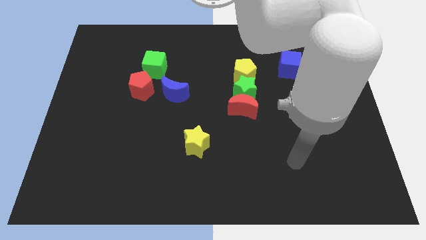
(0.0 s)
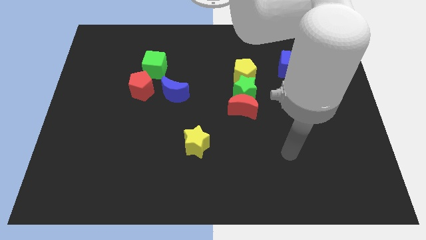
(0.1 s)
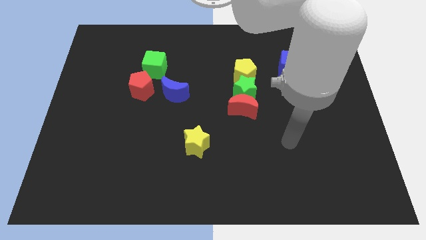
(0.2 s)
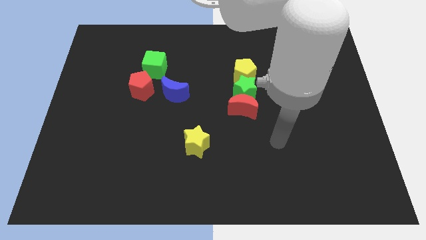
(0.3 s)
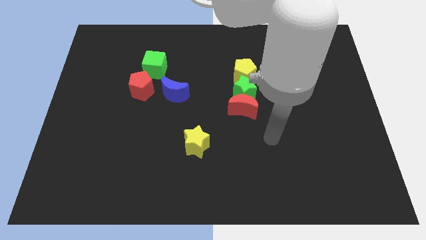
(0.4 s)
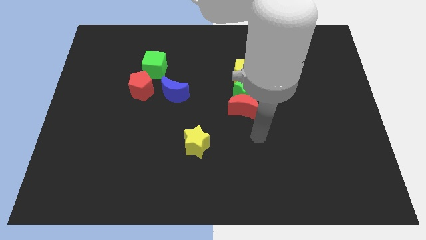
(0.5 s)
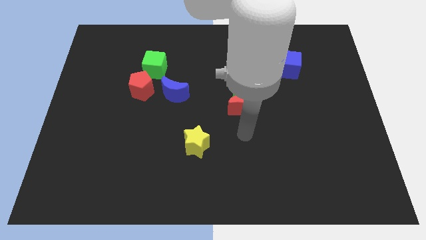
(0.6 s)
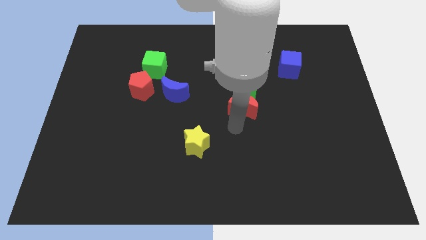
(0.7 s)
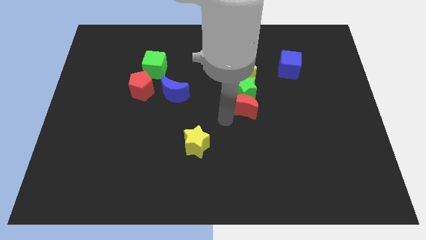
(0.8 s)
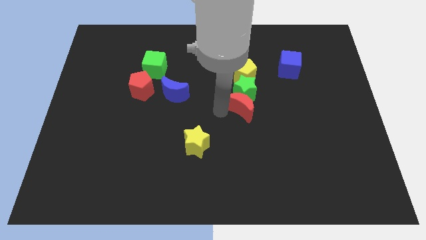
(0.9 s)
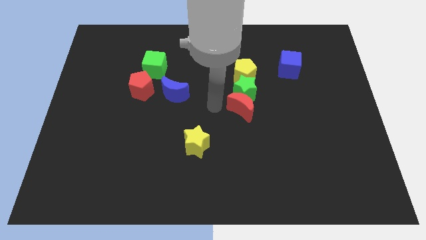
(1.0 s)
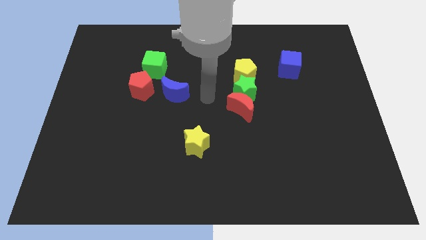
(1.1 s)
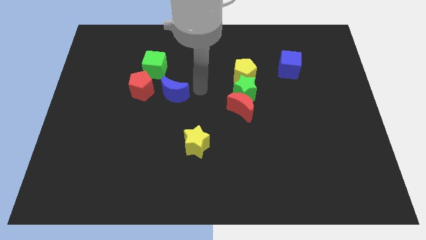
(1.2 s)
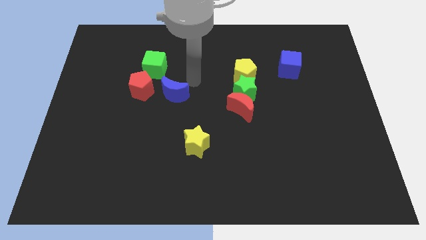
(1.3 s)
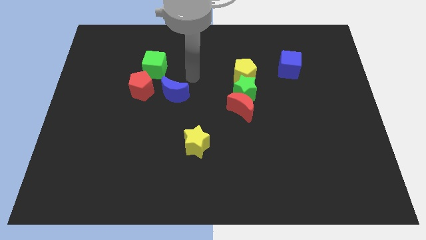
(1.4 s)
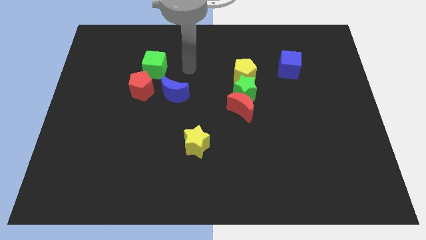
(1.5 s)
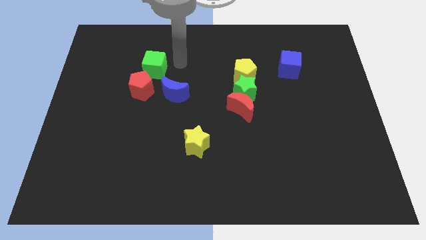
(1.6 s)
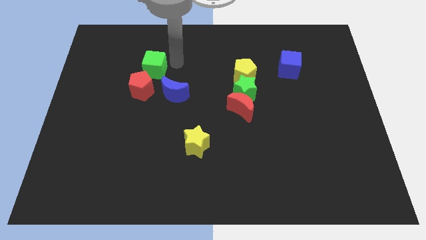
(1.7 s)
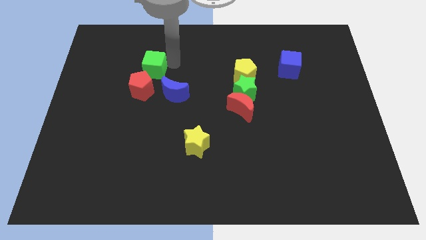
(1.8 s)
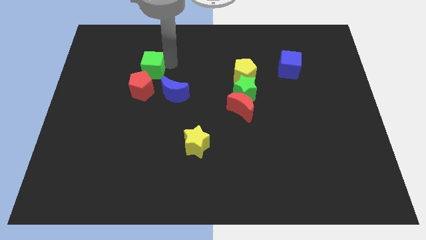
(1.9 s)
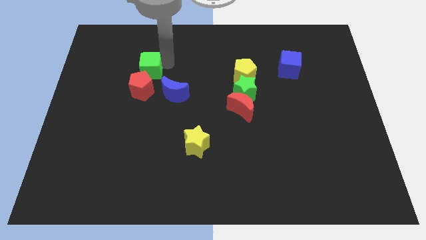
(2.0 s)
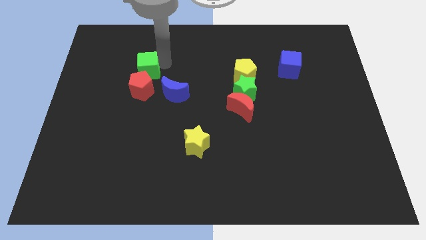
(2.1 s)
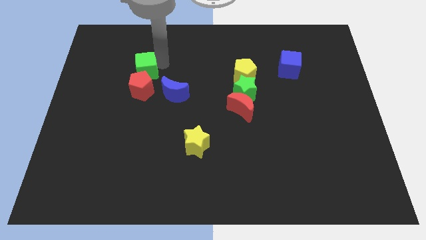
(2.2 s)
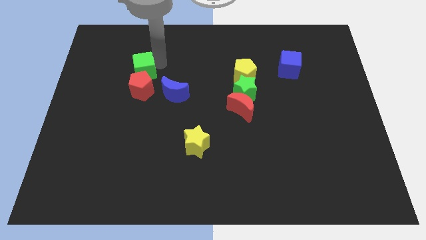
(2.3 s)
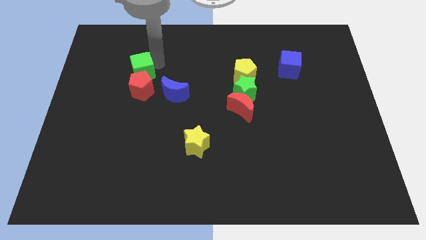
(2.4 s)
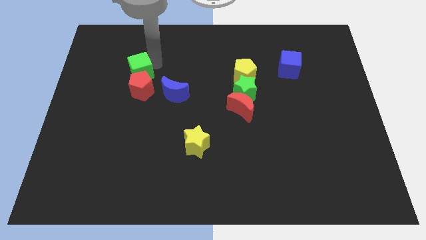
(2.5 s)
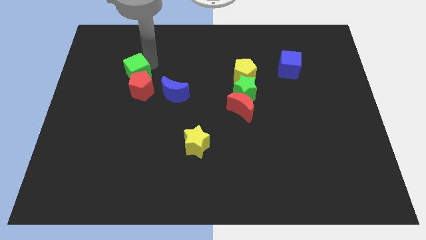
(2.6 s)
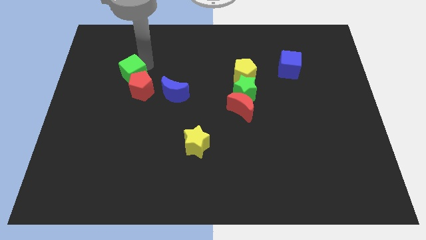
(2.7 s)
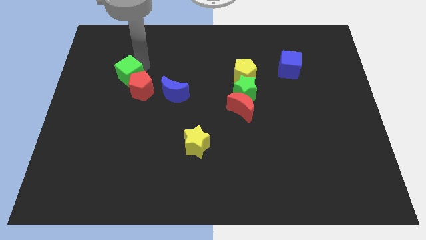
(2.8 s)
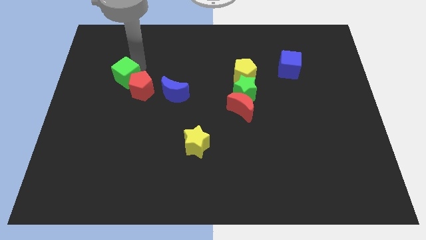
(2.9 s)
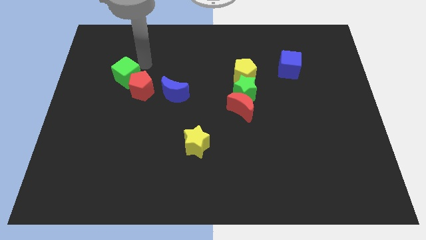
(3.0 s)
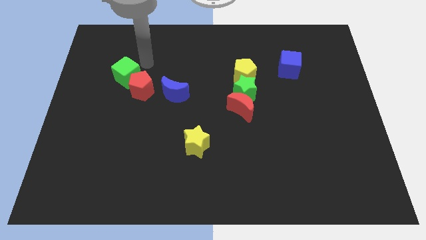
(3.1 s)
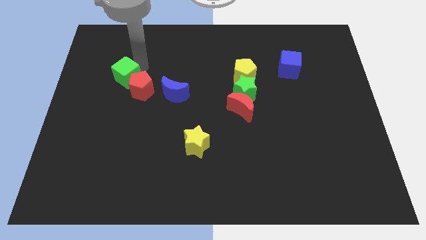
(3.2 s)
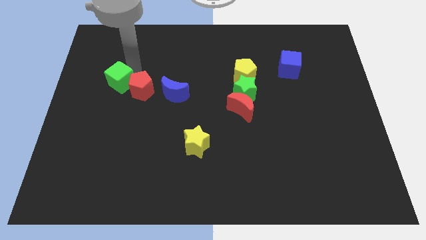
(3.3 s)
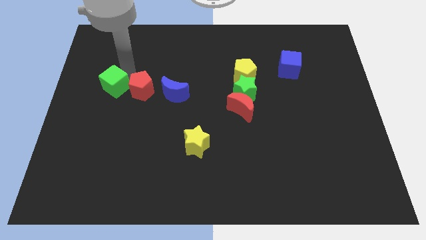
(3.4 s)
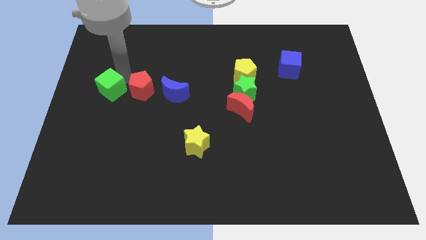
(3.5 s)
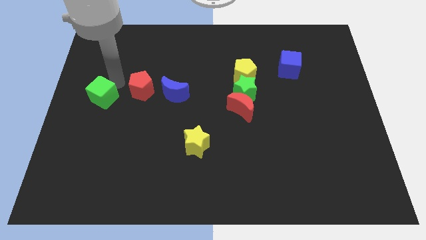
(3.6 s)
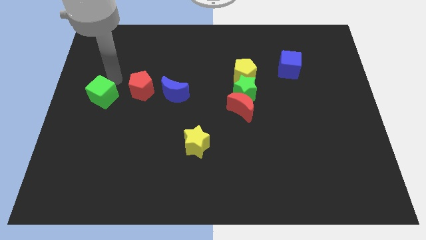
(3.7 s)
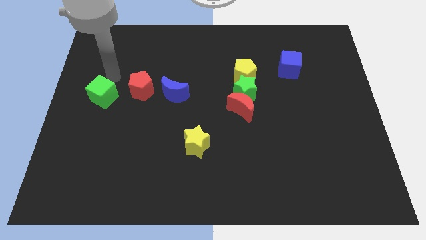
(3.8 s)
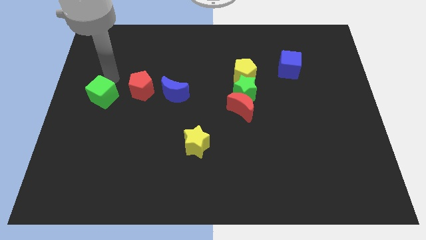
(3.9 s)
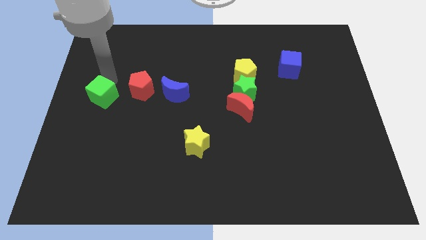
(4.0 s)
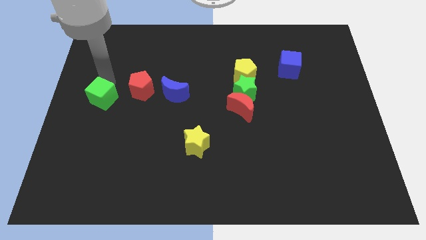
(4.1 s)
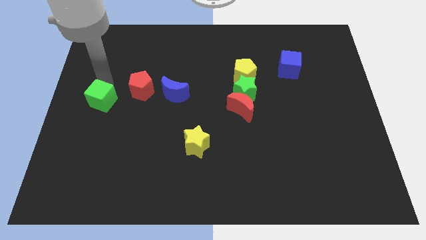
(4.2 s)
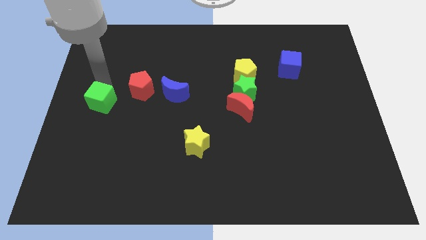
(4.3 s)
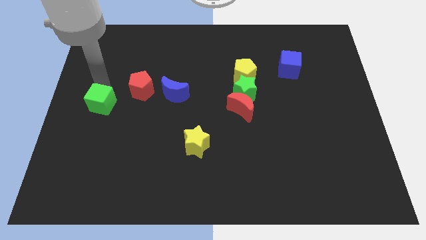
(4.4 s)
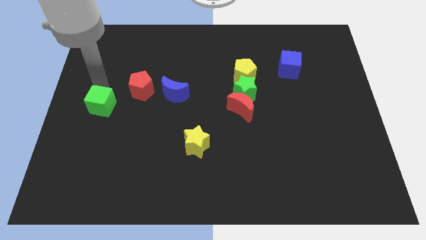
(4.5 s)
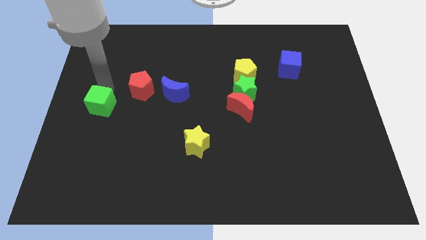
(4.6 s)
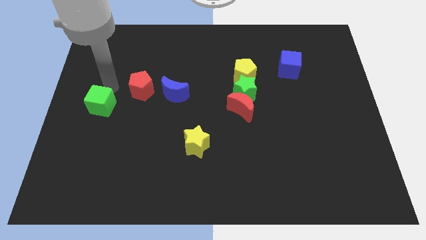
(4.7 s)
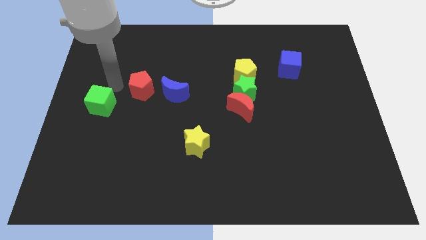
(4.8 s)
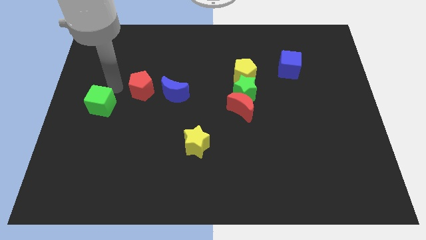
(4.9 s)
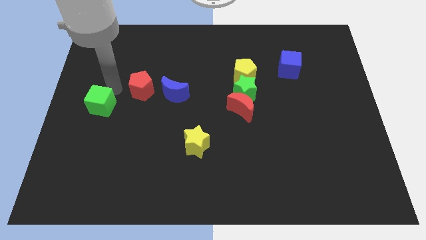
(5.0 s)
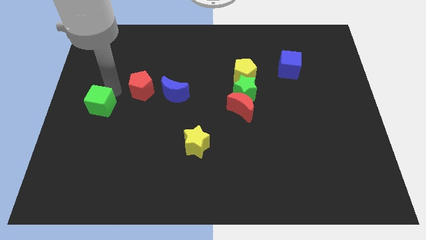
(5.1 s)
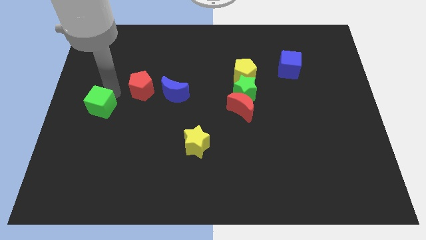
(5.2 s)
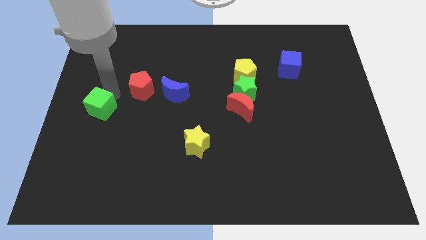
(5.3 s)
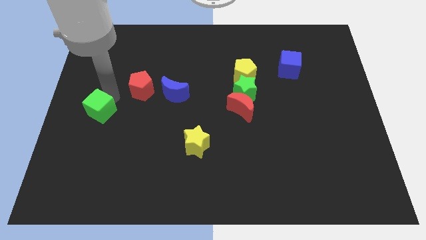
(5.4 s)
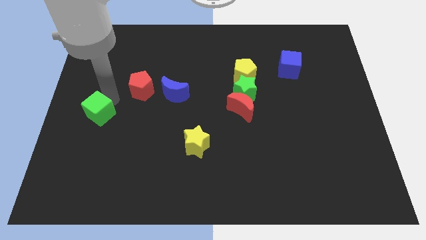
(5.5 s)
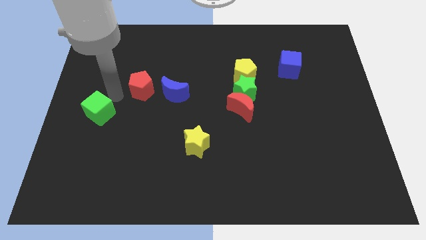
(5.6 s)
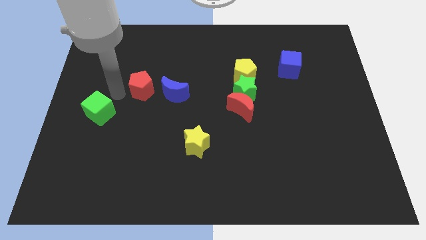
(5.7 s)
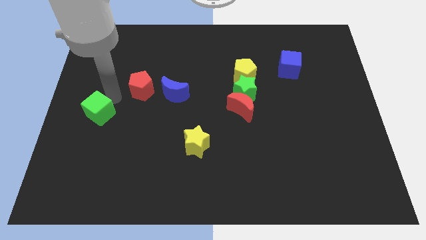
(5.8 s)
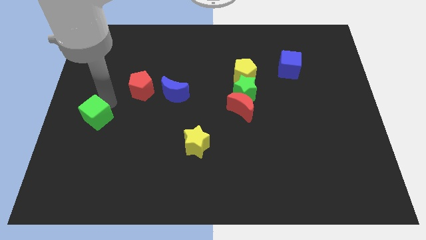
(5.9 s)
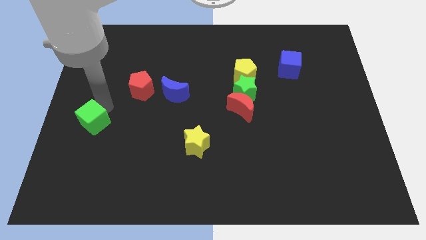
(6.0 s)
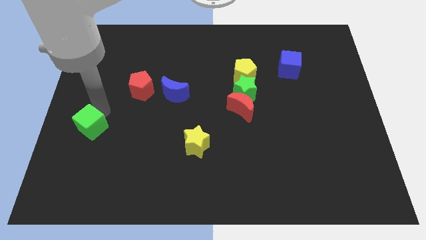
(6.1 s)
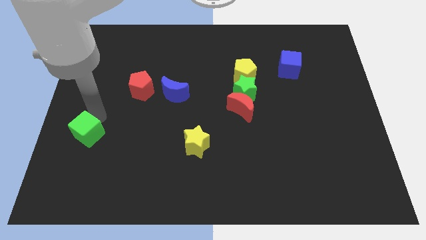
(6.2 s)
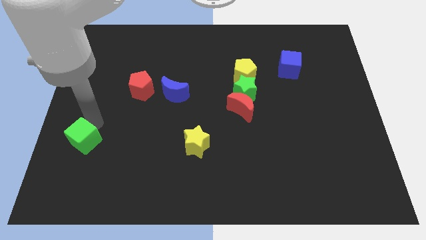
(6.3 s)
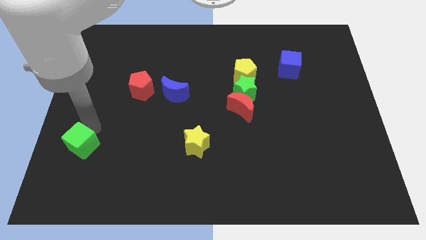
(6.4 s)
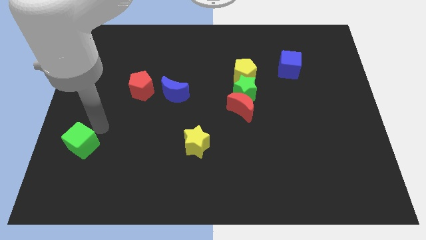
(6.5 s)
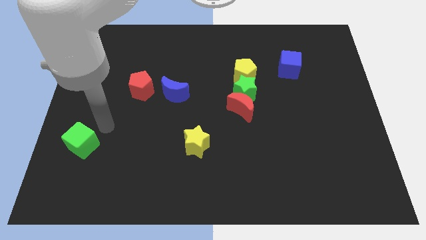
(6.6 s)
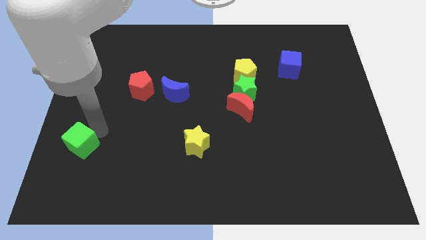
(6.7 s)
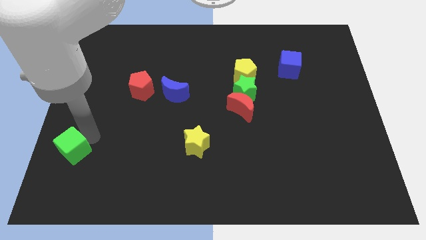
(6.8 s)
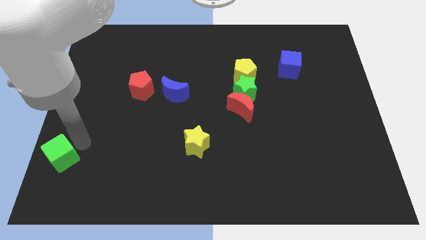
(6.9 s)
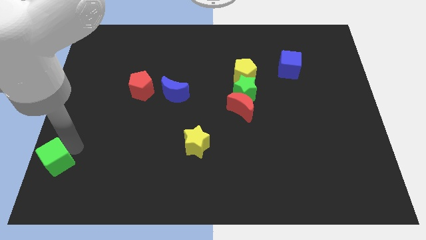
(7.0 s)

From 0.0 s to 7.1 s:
move the green cube to the bottom left corner
